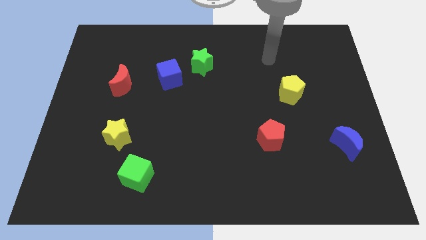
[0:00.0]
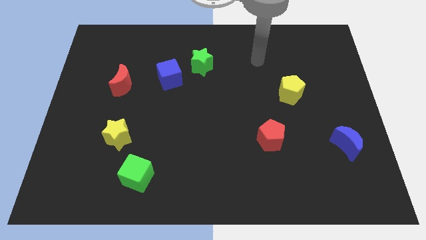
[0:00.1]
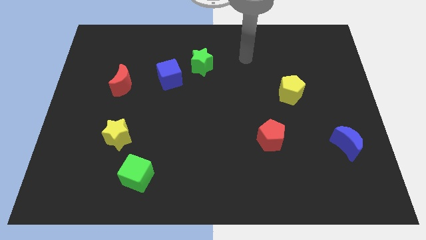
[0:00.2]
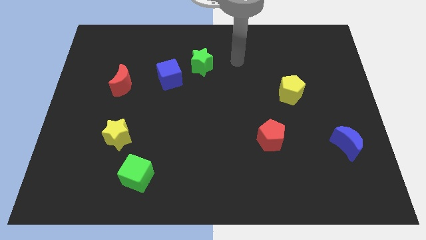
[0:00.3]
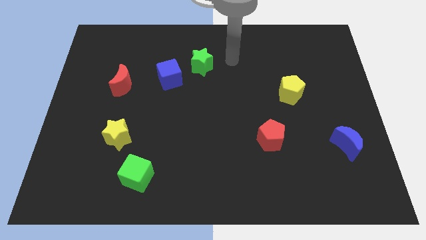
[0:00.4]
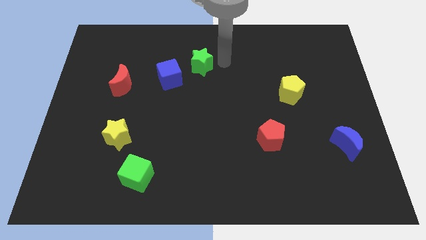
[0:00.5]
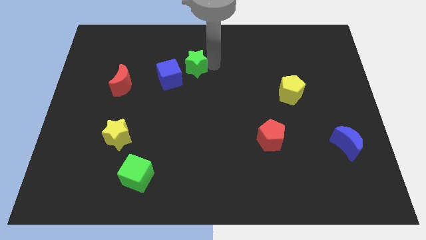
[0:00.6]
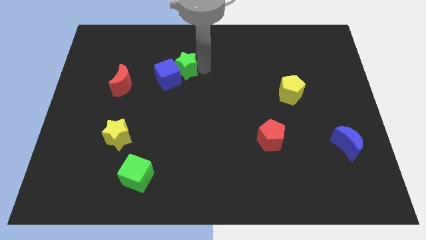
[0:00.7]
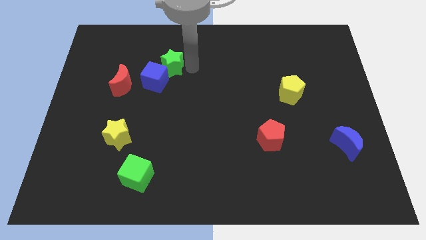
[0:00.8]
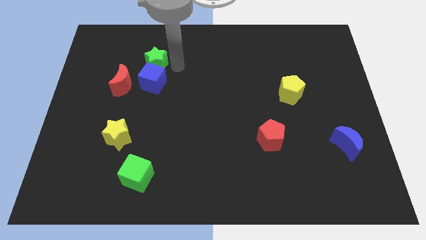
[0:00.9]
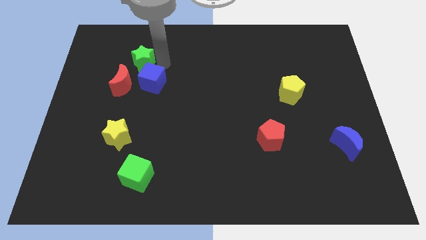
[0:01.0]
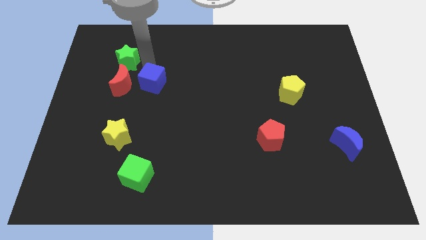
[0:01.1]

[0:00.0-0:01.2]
separate the blue cube from the green star

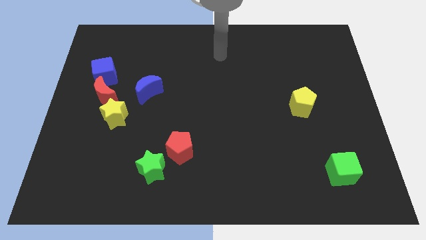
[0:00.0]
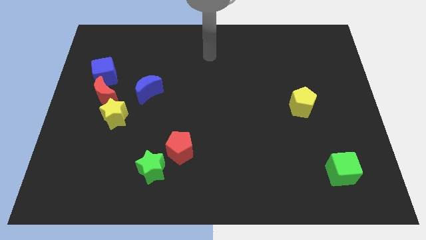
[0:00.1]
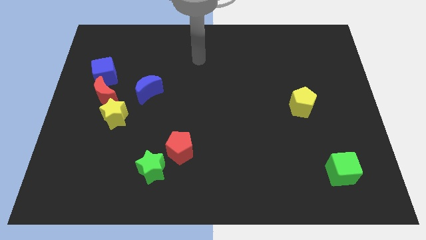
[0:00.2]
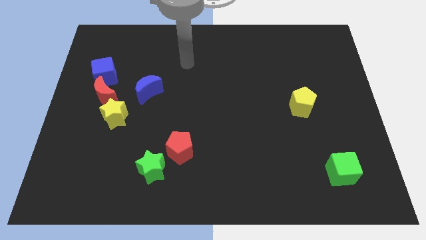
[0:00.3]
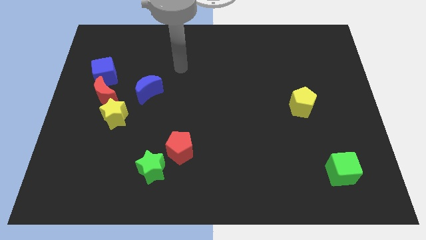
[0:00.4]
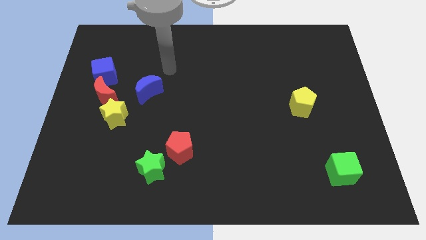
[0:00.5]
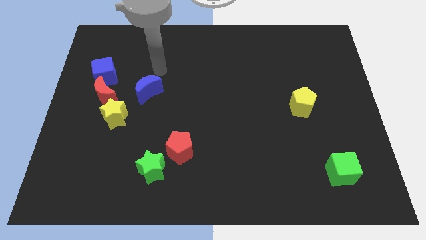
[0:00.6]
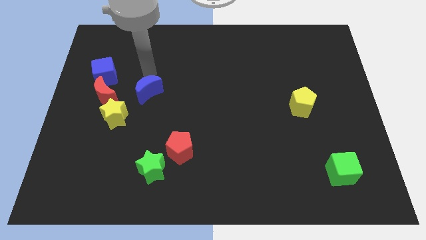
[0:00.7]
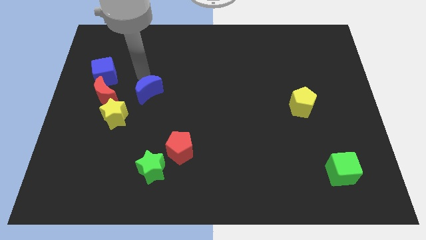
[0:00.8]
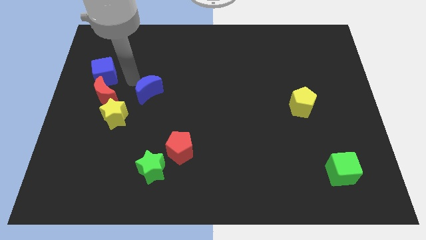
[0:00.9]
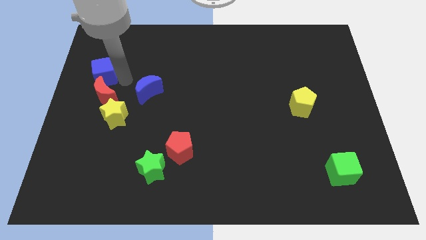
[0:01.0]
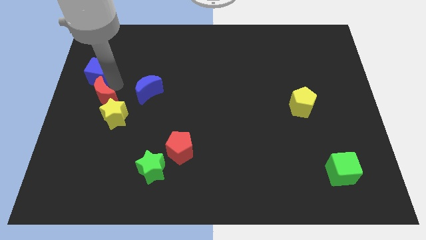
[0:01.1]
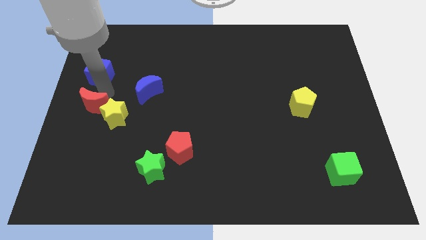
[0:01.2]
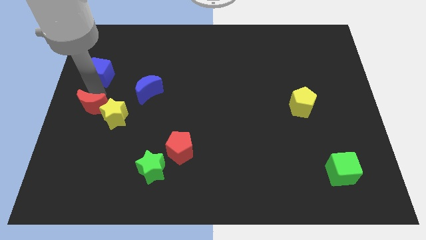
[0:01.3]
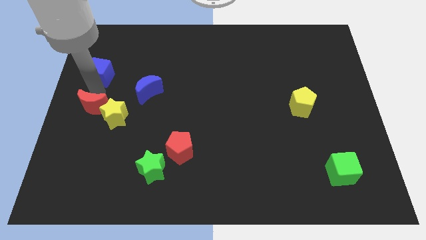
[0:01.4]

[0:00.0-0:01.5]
separate the blue cube from the red moon

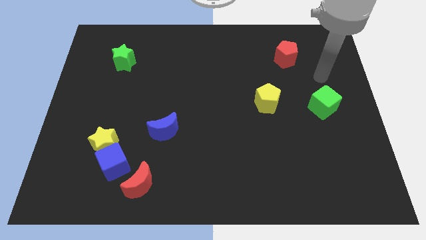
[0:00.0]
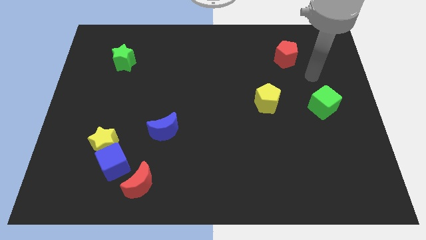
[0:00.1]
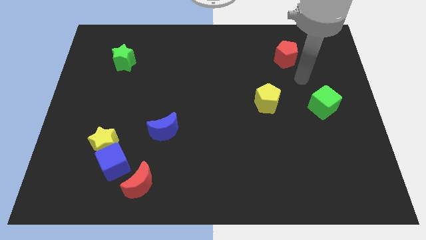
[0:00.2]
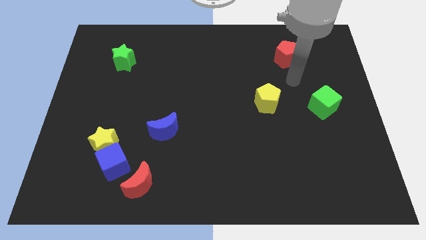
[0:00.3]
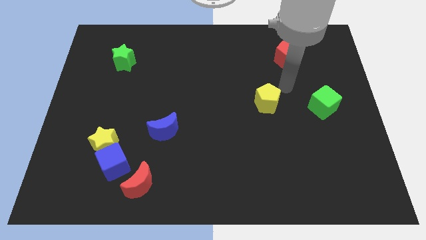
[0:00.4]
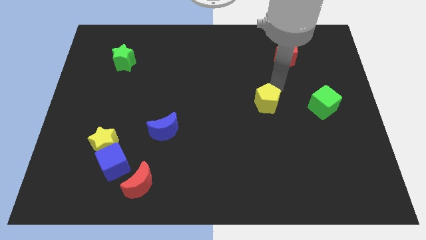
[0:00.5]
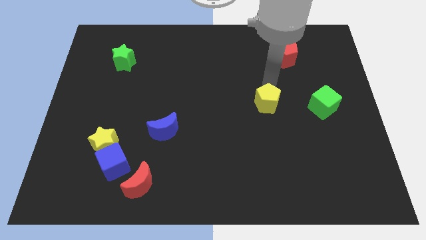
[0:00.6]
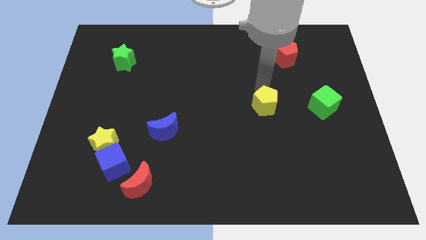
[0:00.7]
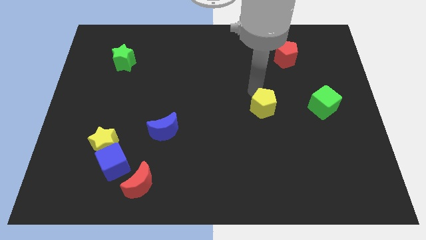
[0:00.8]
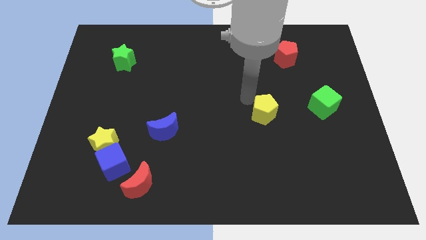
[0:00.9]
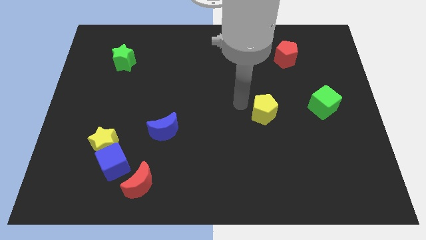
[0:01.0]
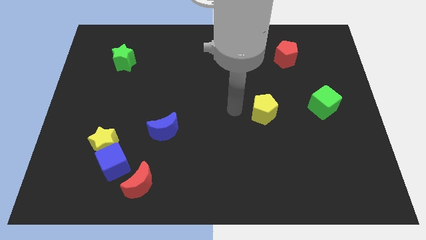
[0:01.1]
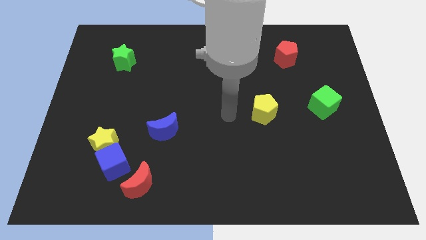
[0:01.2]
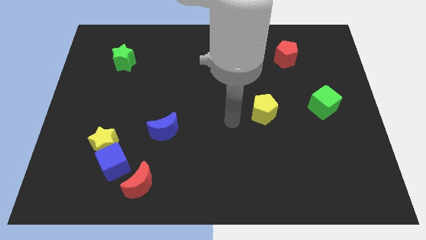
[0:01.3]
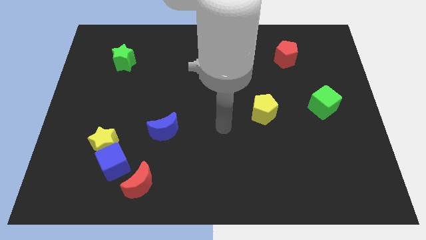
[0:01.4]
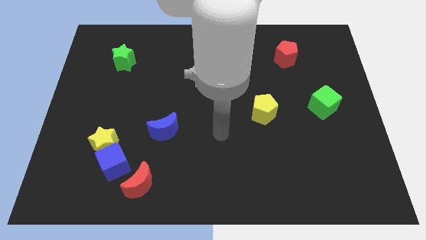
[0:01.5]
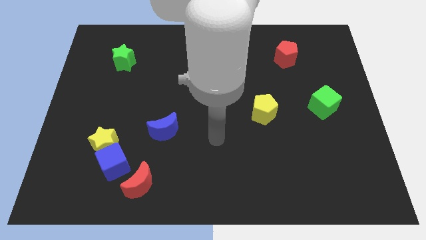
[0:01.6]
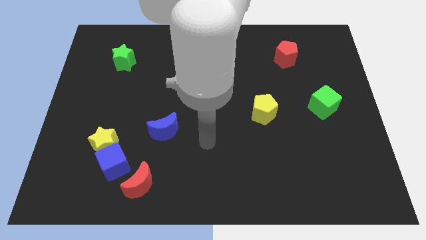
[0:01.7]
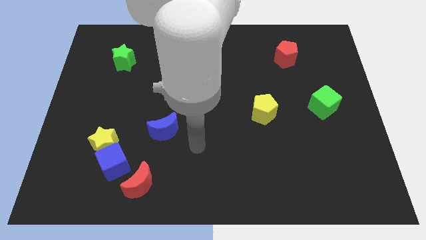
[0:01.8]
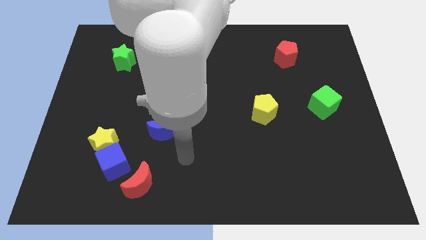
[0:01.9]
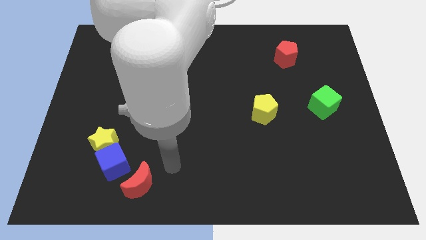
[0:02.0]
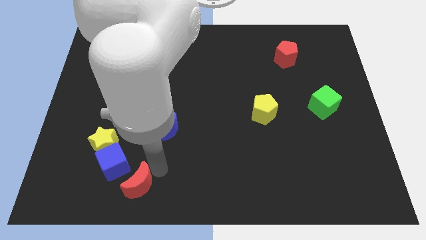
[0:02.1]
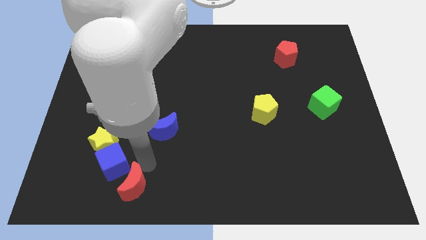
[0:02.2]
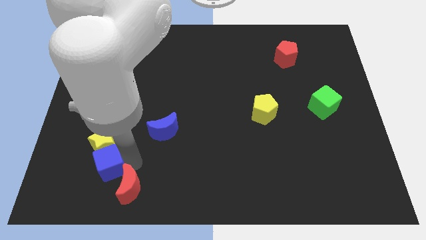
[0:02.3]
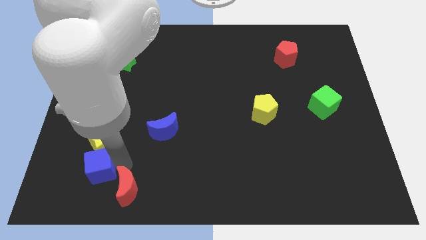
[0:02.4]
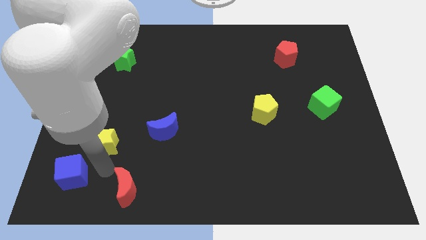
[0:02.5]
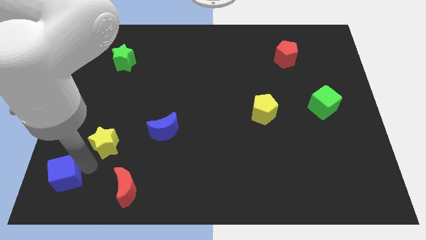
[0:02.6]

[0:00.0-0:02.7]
pull the yellow star apart from the blue cube

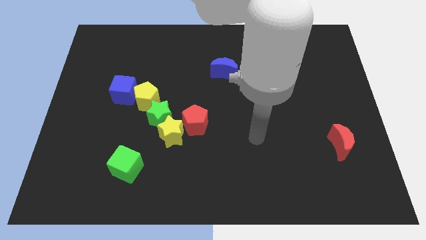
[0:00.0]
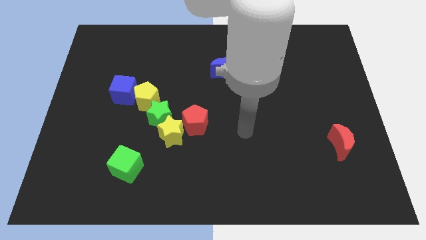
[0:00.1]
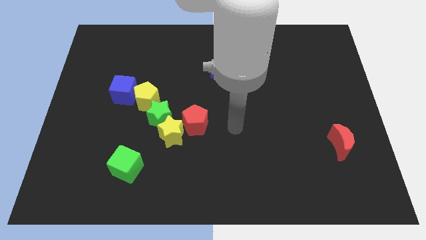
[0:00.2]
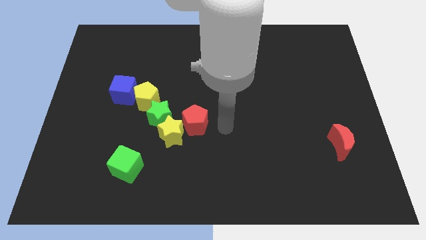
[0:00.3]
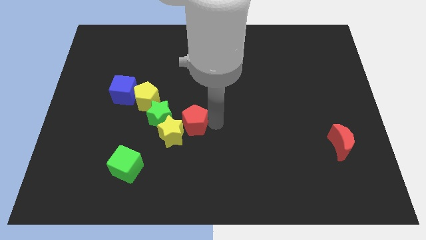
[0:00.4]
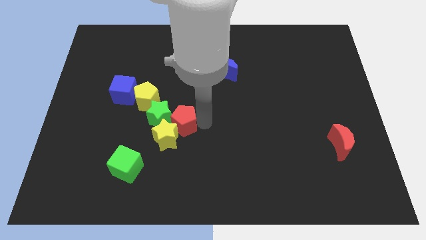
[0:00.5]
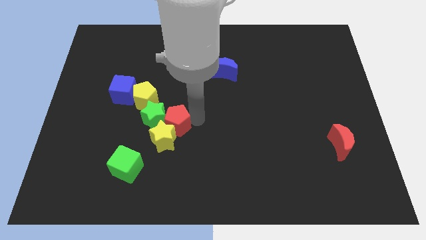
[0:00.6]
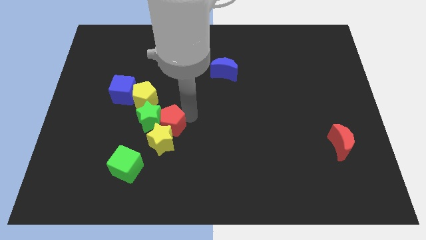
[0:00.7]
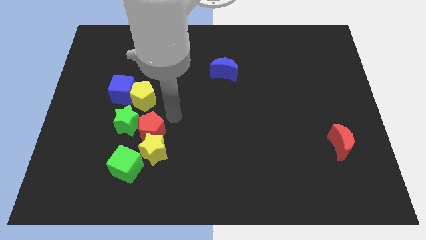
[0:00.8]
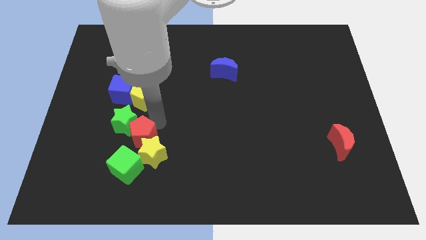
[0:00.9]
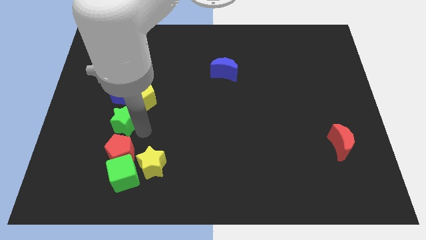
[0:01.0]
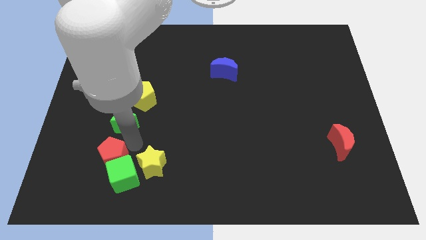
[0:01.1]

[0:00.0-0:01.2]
pull the yellow star apart from the green star and red pentagon

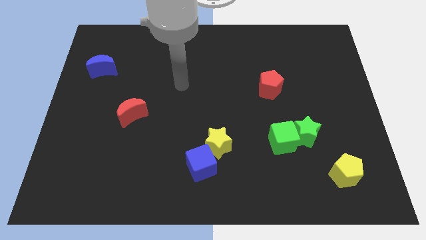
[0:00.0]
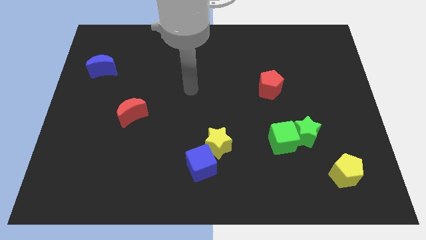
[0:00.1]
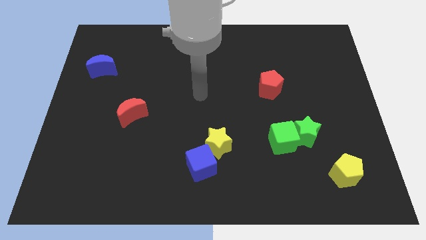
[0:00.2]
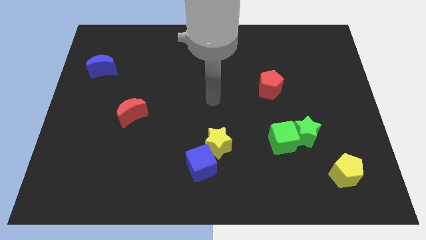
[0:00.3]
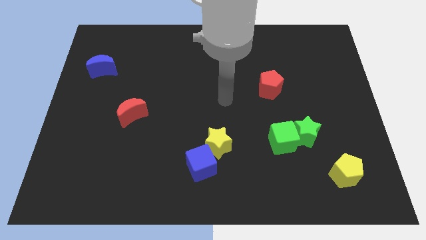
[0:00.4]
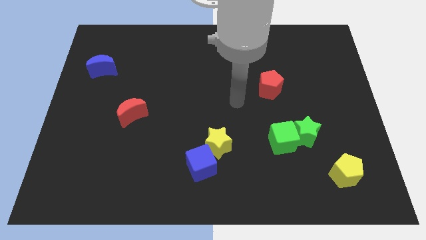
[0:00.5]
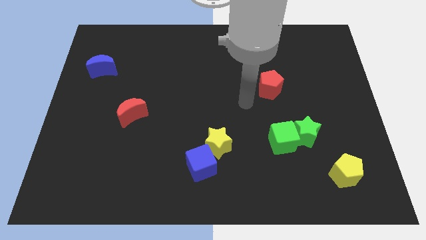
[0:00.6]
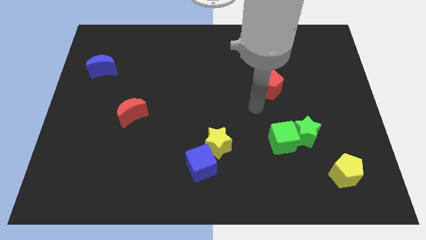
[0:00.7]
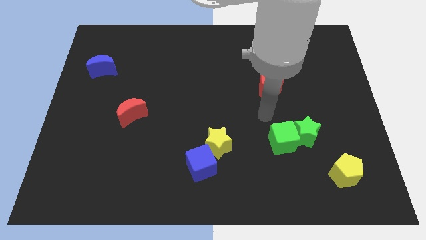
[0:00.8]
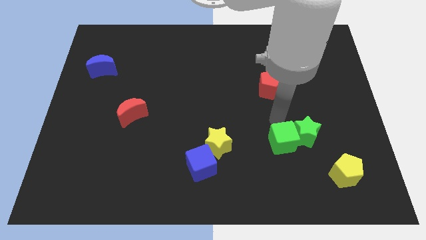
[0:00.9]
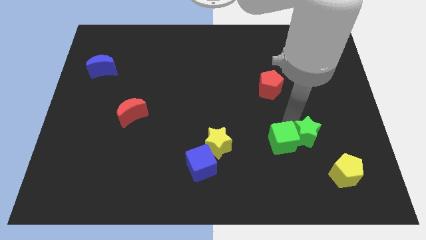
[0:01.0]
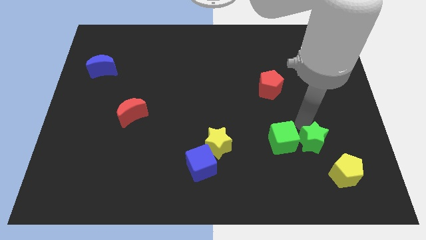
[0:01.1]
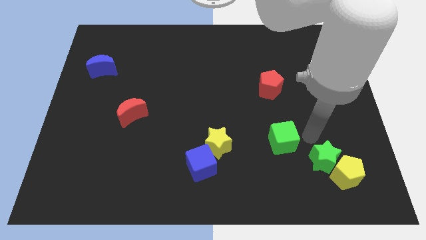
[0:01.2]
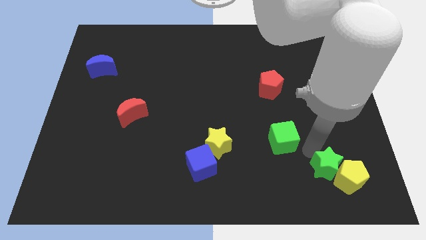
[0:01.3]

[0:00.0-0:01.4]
move the green cube away from the green star

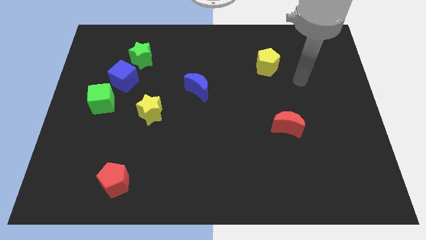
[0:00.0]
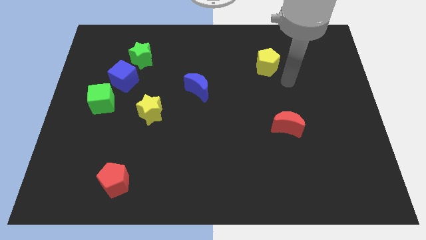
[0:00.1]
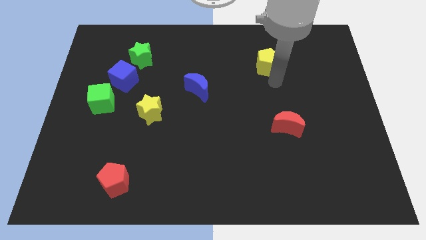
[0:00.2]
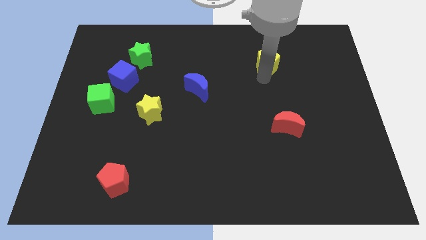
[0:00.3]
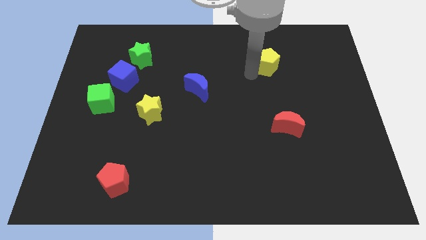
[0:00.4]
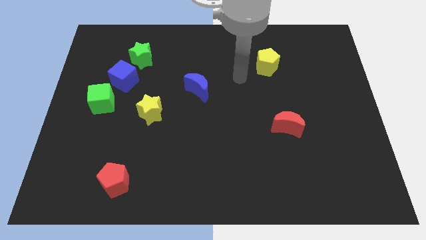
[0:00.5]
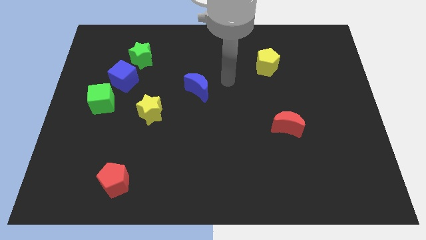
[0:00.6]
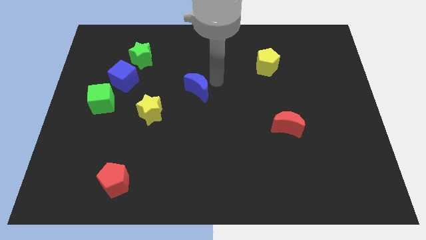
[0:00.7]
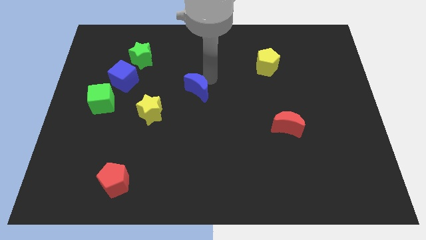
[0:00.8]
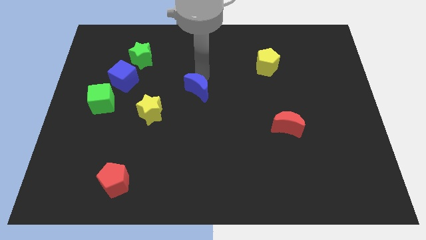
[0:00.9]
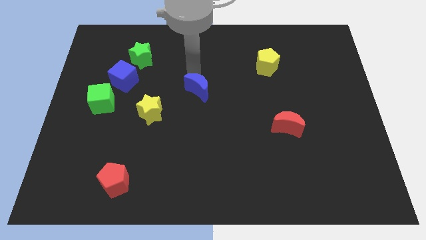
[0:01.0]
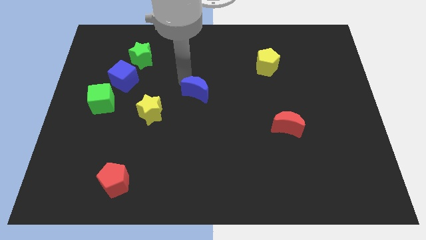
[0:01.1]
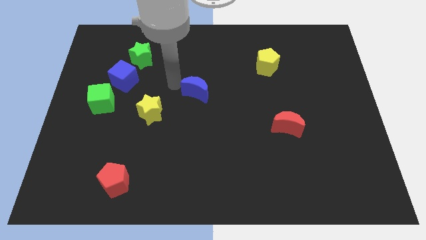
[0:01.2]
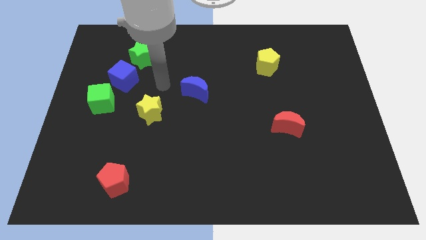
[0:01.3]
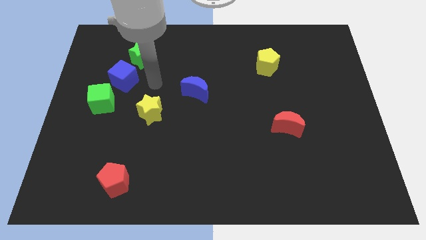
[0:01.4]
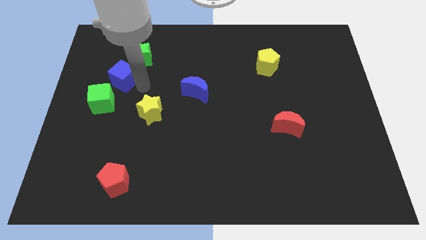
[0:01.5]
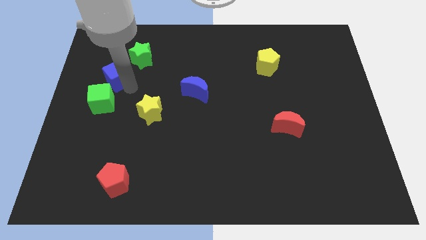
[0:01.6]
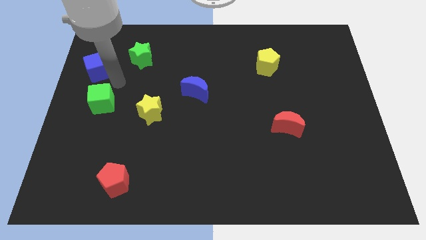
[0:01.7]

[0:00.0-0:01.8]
separate the green cube from the blue cube